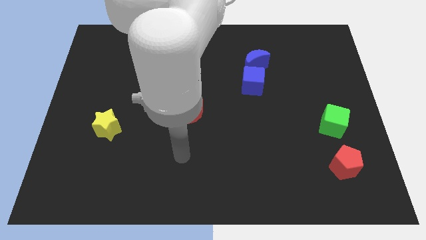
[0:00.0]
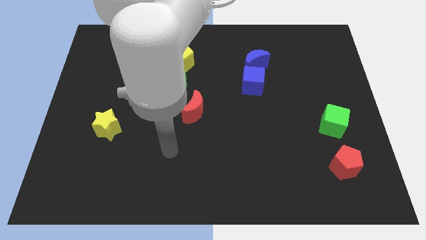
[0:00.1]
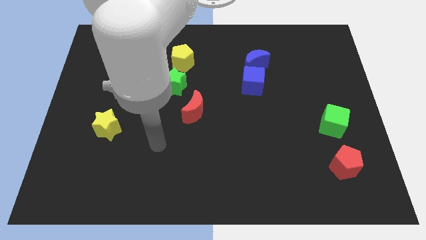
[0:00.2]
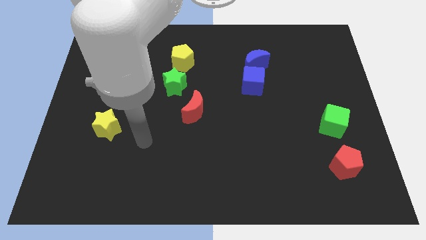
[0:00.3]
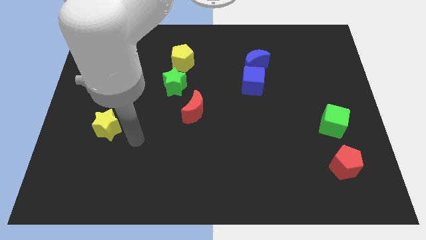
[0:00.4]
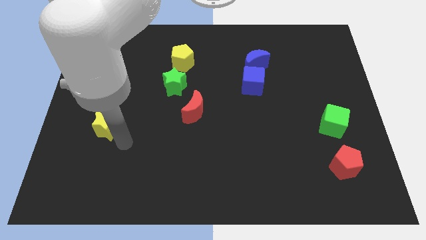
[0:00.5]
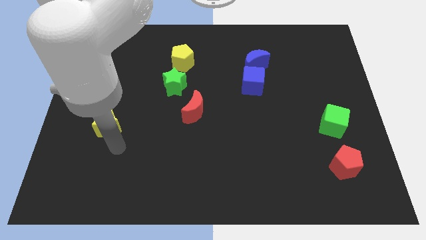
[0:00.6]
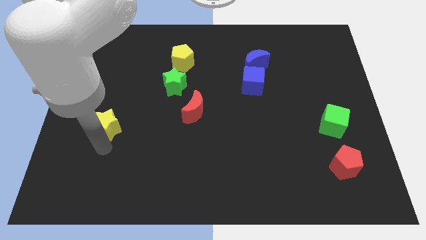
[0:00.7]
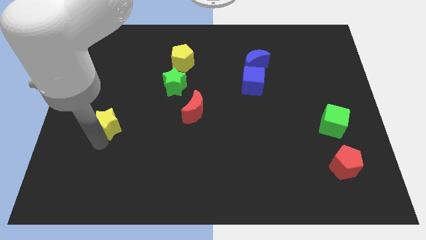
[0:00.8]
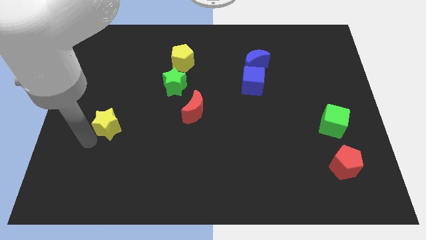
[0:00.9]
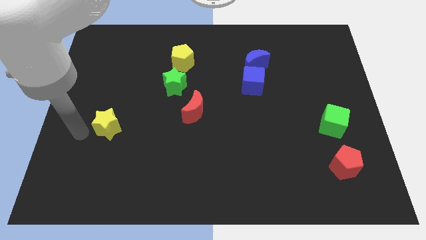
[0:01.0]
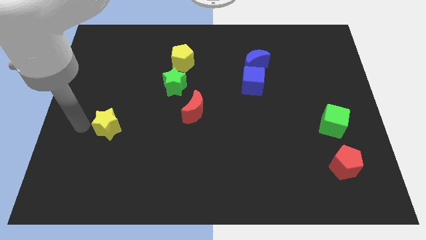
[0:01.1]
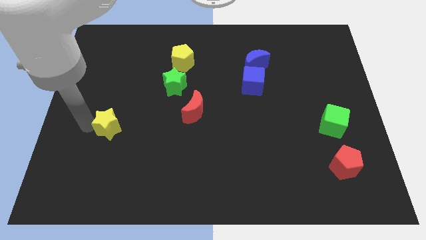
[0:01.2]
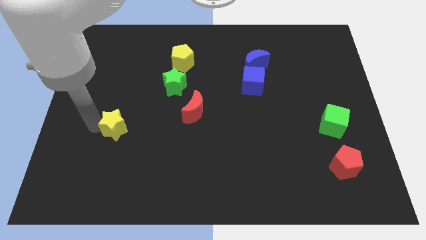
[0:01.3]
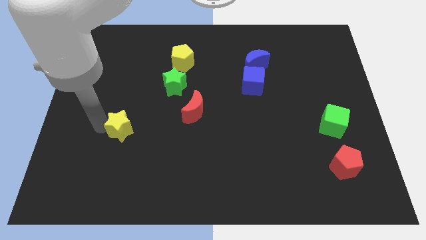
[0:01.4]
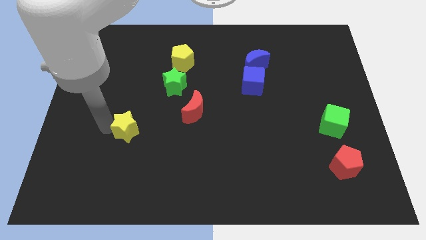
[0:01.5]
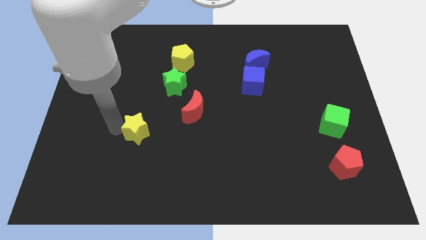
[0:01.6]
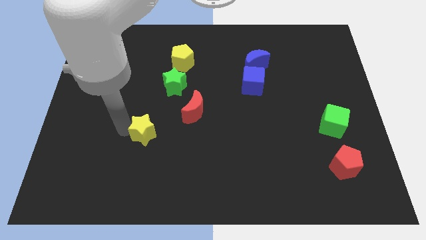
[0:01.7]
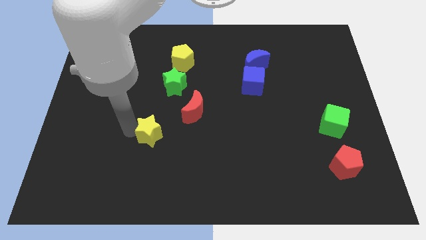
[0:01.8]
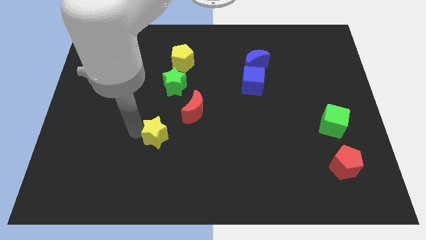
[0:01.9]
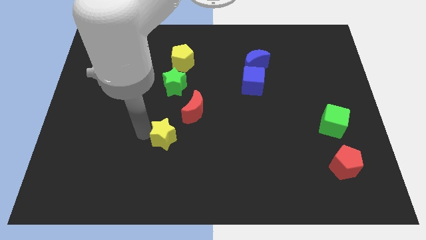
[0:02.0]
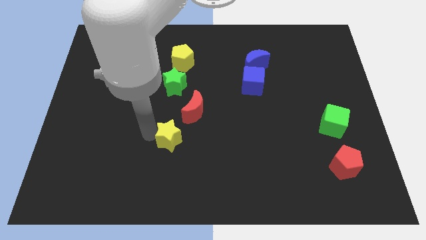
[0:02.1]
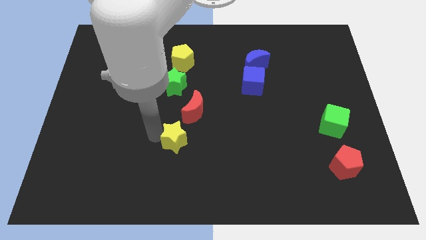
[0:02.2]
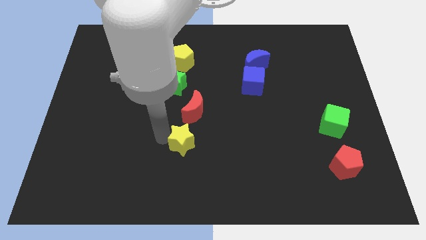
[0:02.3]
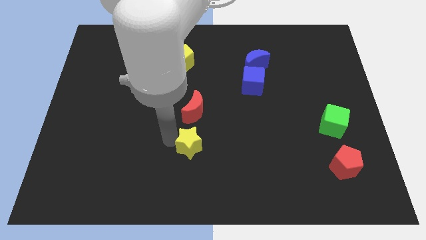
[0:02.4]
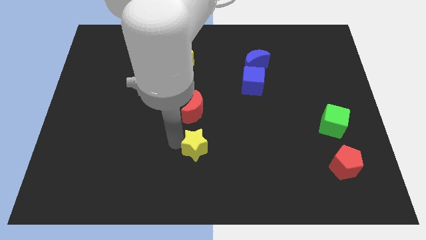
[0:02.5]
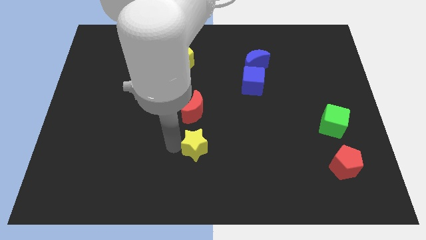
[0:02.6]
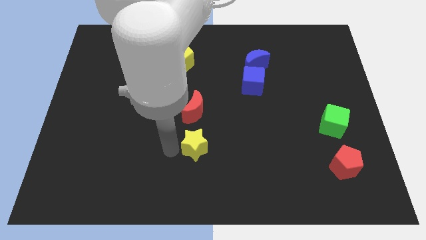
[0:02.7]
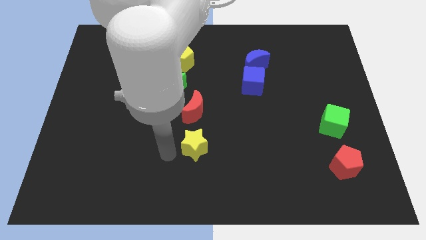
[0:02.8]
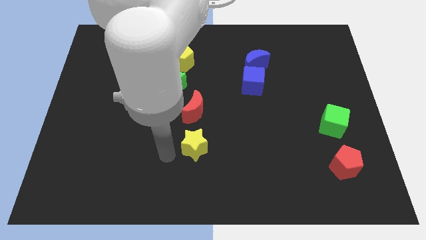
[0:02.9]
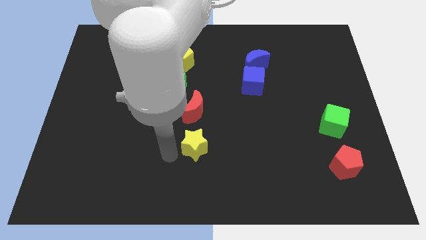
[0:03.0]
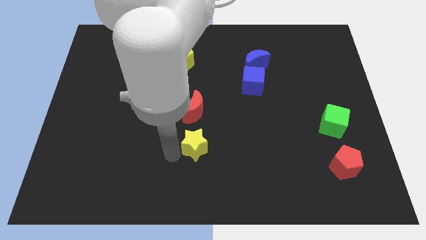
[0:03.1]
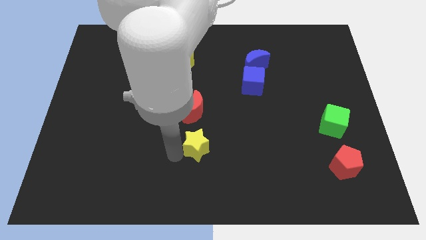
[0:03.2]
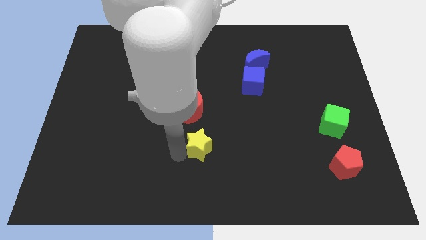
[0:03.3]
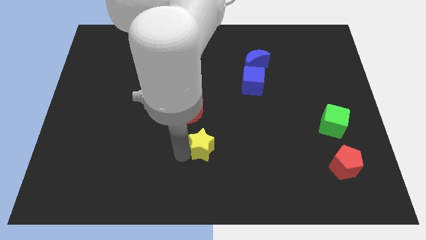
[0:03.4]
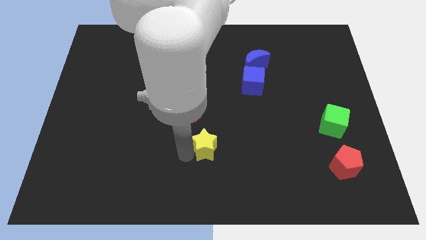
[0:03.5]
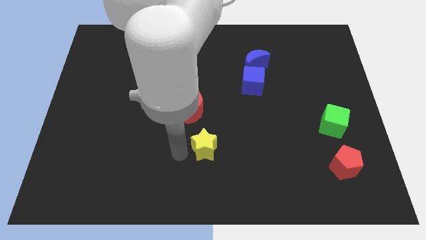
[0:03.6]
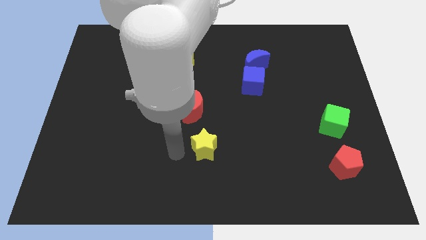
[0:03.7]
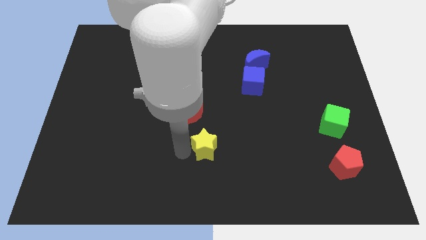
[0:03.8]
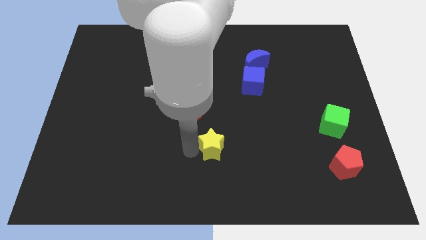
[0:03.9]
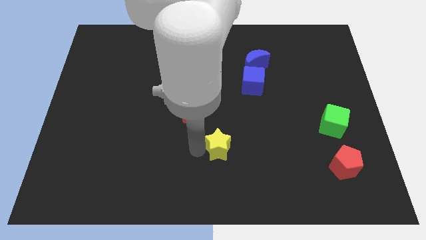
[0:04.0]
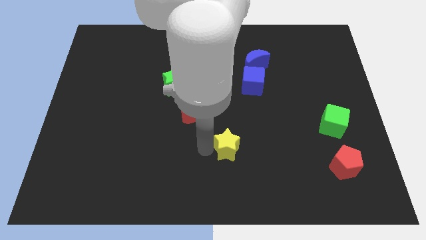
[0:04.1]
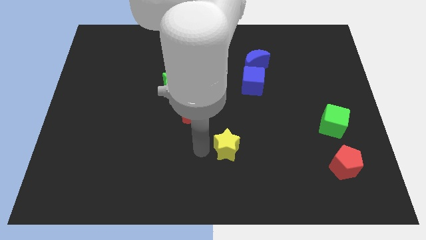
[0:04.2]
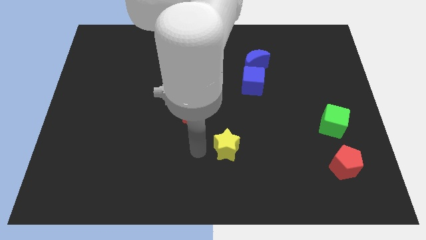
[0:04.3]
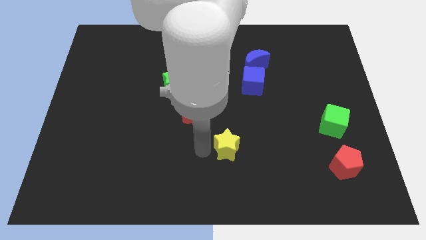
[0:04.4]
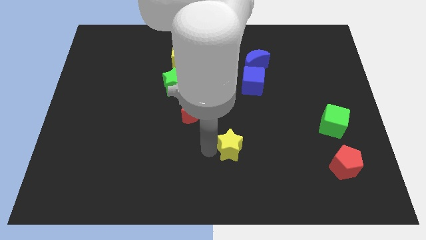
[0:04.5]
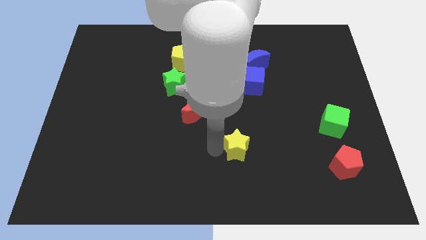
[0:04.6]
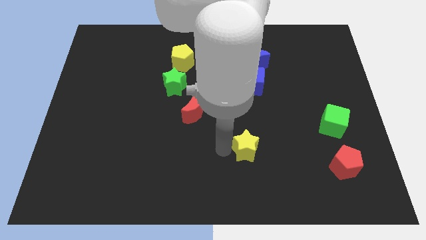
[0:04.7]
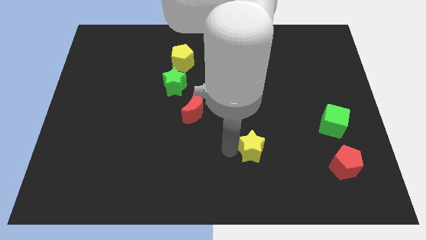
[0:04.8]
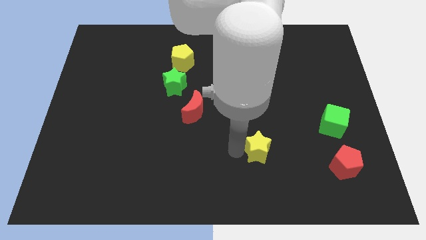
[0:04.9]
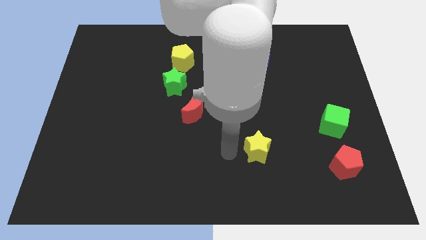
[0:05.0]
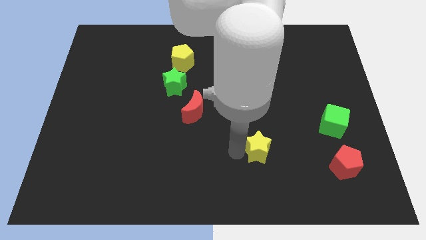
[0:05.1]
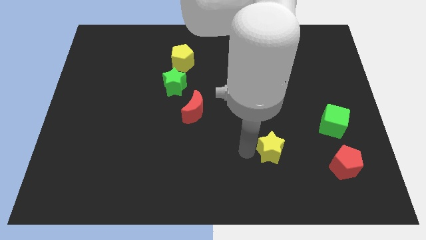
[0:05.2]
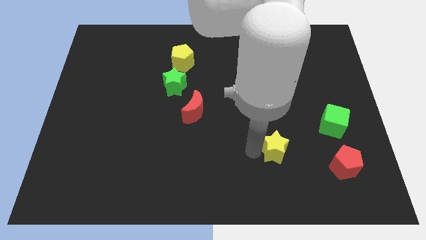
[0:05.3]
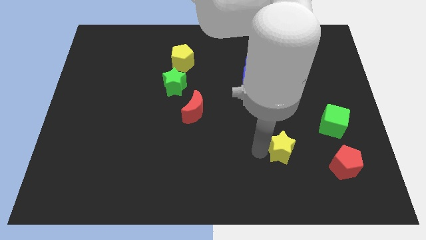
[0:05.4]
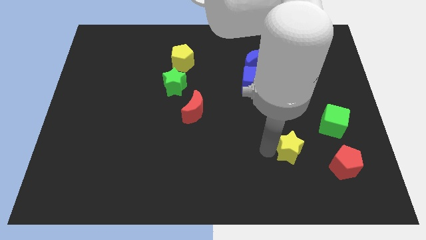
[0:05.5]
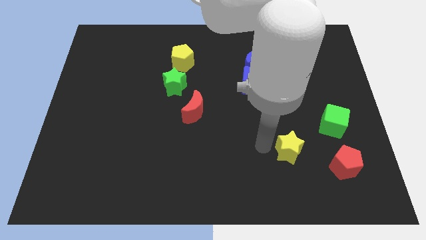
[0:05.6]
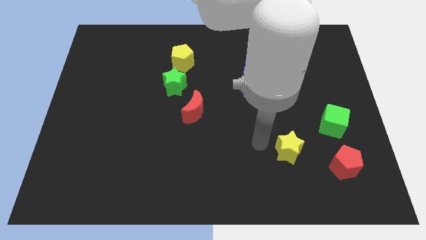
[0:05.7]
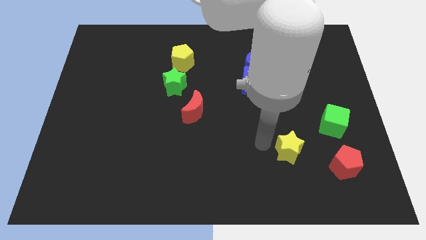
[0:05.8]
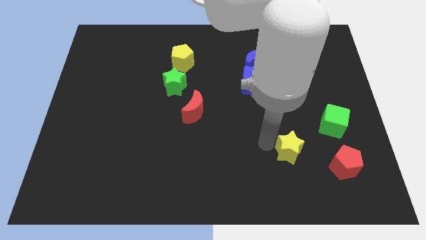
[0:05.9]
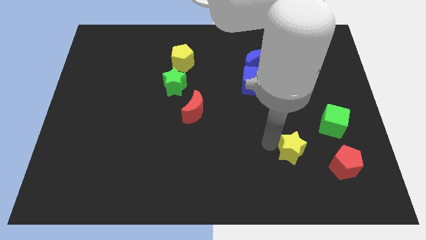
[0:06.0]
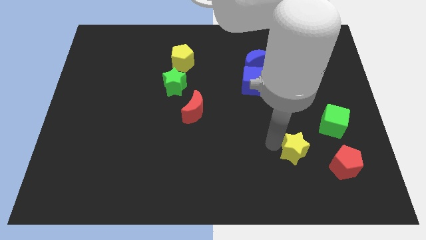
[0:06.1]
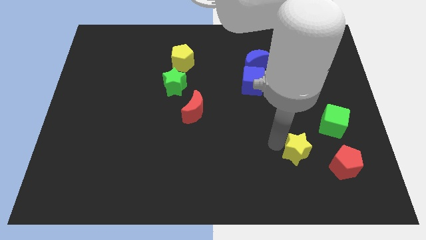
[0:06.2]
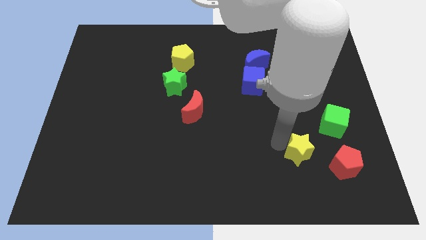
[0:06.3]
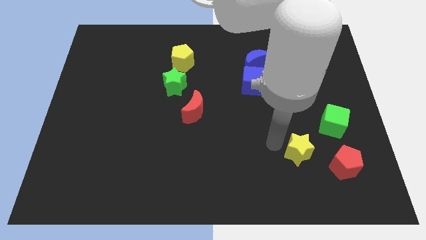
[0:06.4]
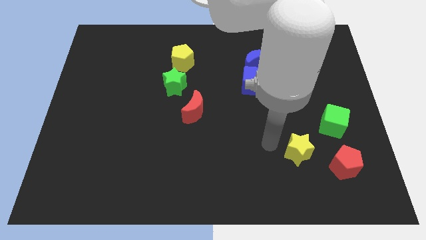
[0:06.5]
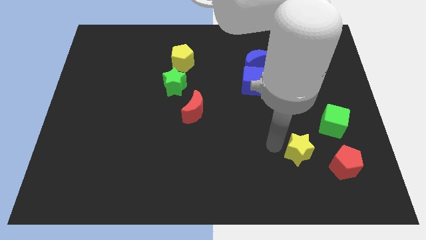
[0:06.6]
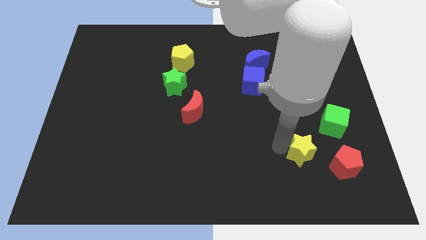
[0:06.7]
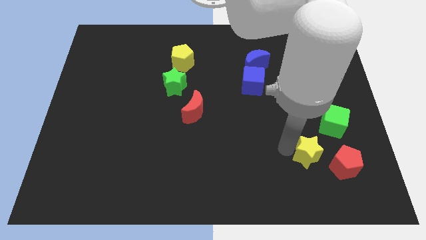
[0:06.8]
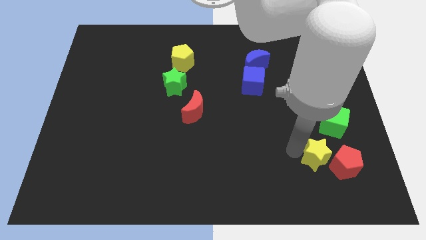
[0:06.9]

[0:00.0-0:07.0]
slide the yellow star next to the red pentagon

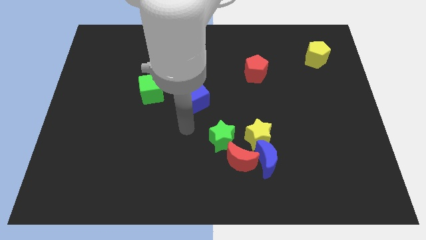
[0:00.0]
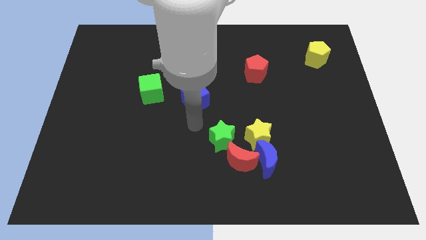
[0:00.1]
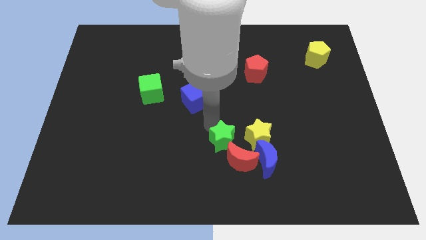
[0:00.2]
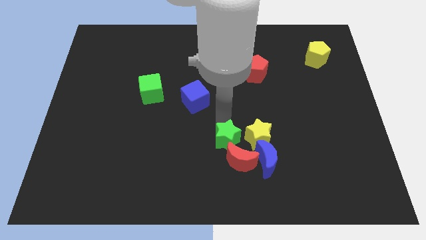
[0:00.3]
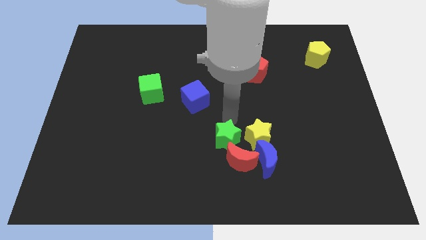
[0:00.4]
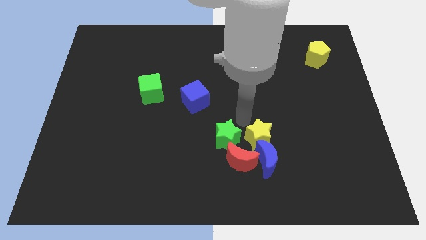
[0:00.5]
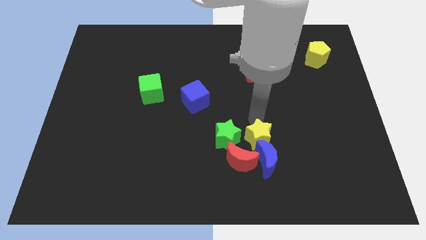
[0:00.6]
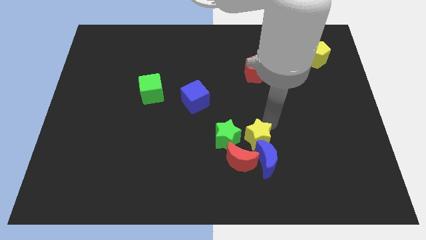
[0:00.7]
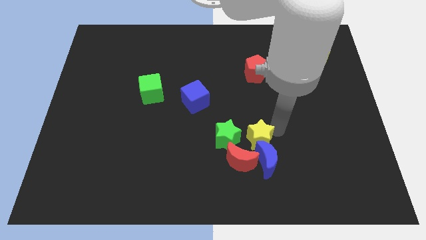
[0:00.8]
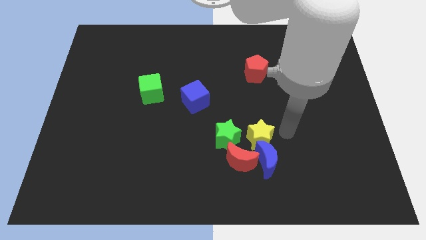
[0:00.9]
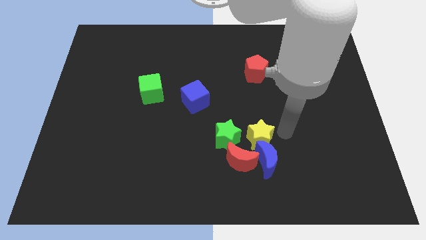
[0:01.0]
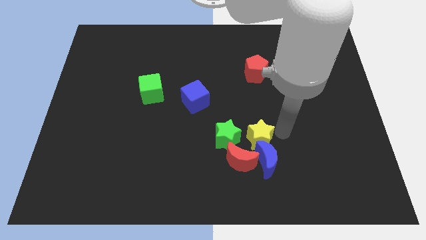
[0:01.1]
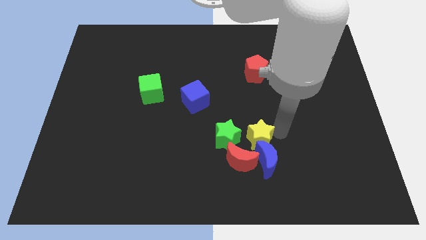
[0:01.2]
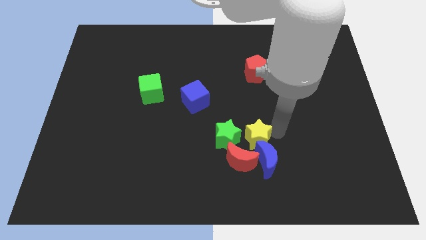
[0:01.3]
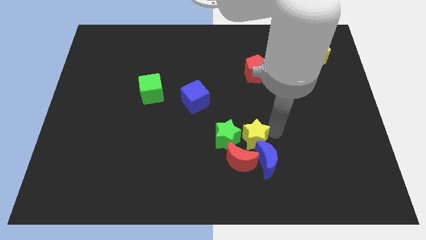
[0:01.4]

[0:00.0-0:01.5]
push the yellow star to the green star
